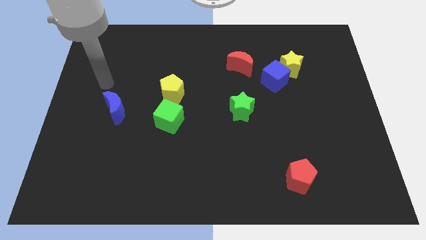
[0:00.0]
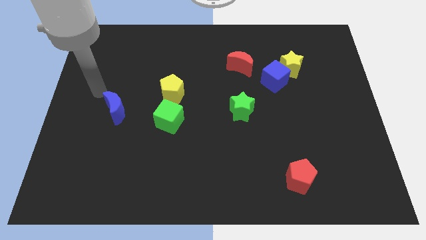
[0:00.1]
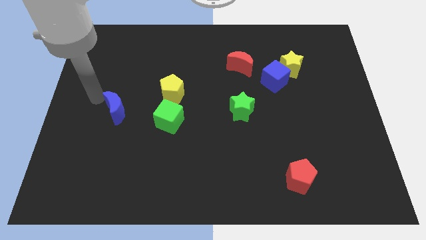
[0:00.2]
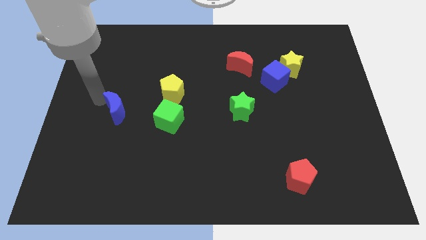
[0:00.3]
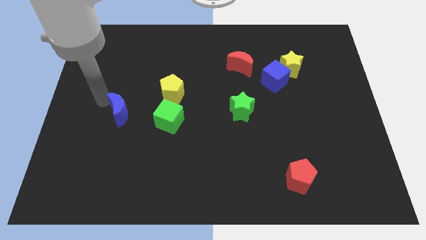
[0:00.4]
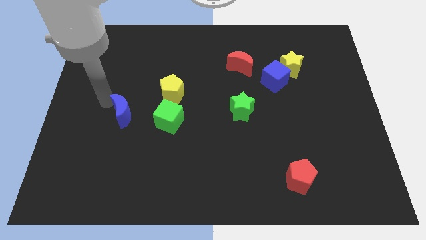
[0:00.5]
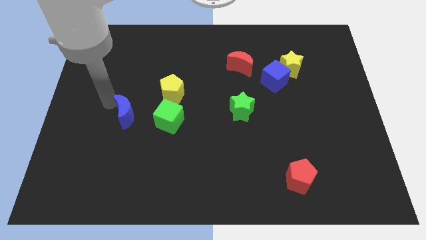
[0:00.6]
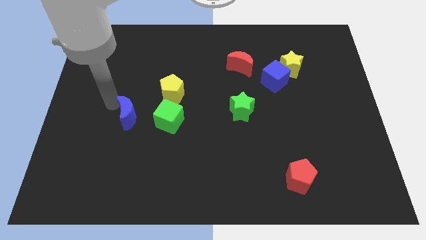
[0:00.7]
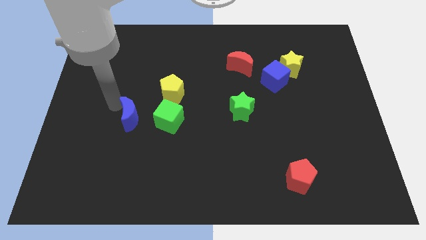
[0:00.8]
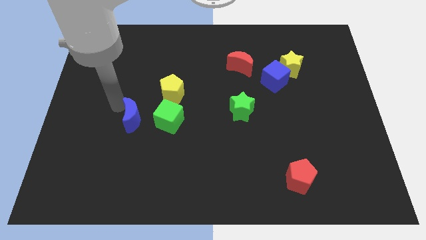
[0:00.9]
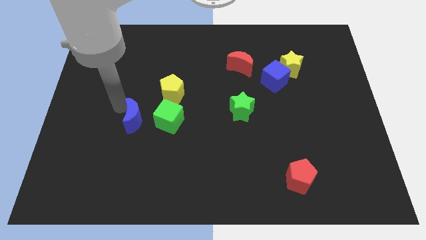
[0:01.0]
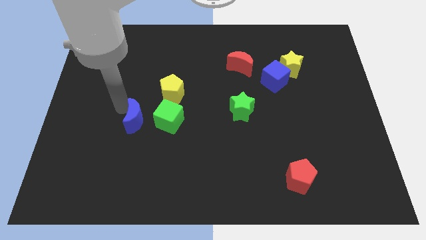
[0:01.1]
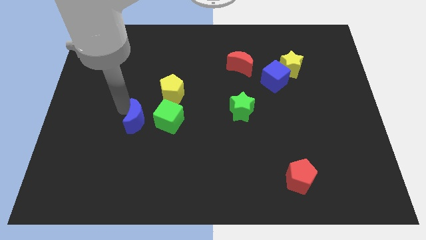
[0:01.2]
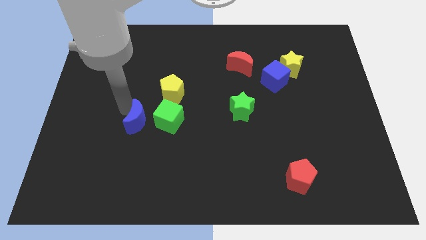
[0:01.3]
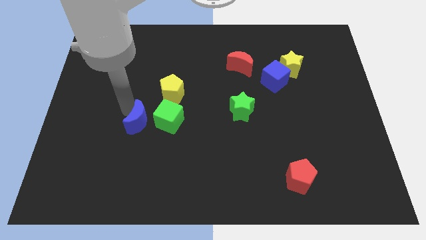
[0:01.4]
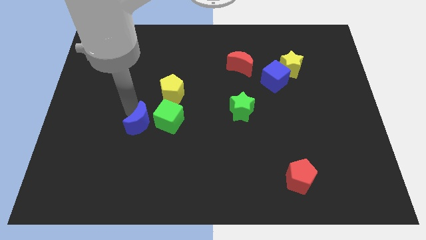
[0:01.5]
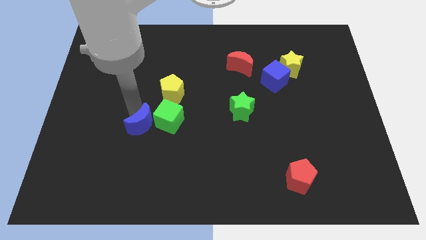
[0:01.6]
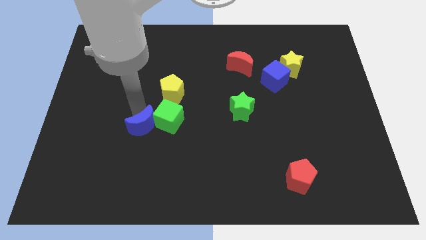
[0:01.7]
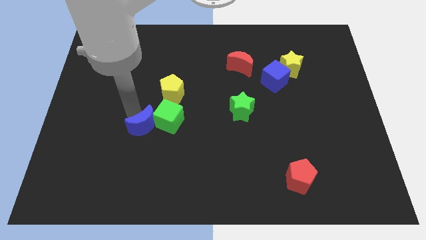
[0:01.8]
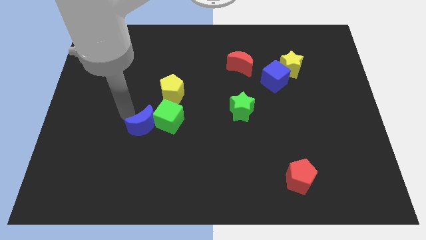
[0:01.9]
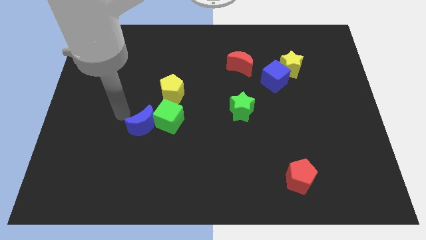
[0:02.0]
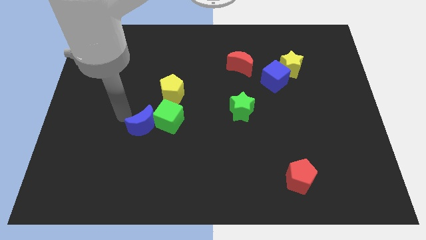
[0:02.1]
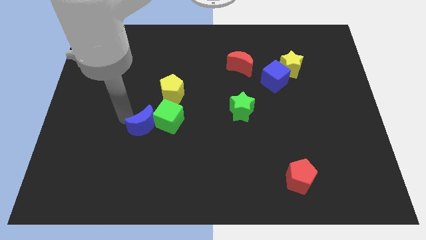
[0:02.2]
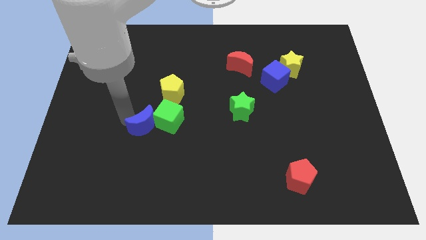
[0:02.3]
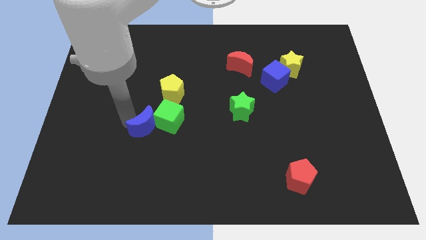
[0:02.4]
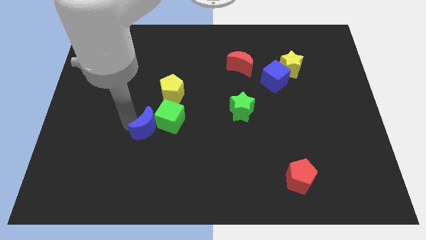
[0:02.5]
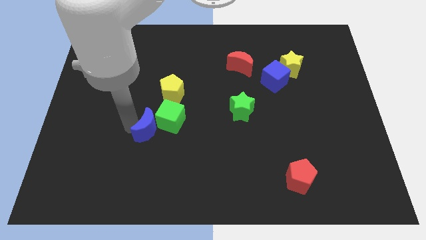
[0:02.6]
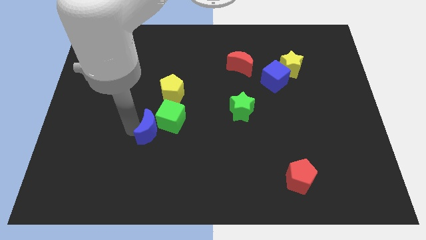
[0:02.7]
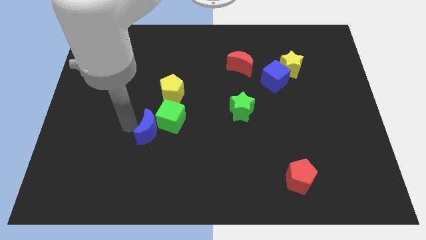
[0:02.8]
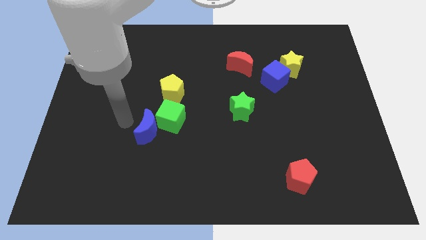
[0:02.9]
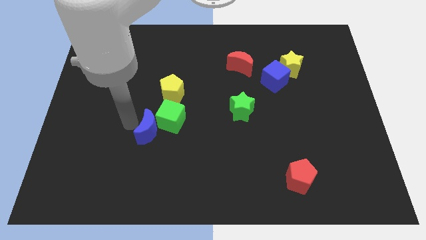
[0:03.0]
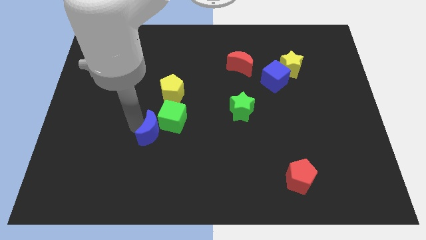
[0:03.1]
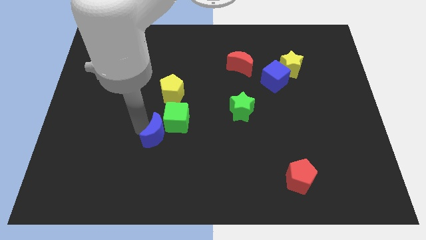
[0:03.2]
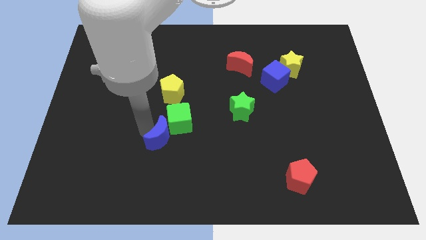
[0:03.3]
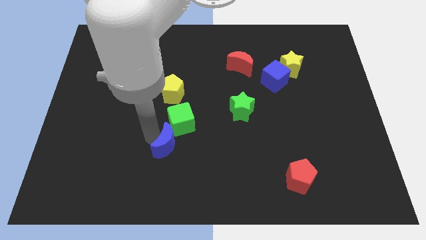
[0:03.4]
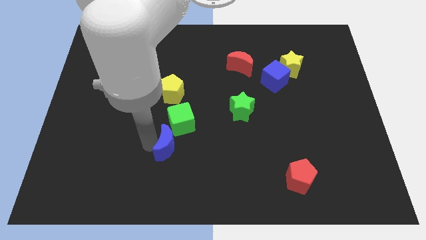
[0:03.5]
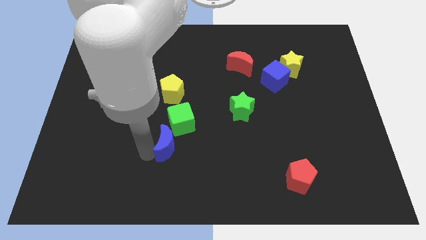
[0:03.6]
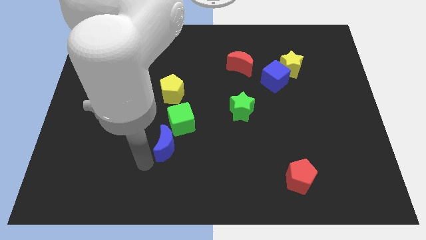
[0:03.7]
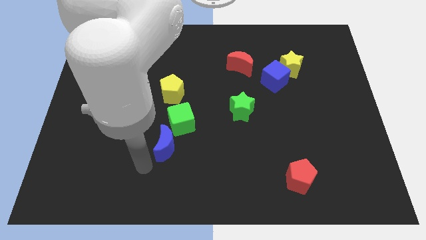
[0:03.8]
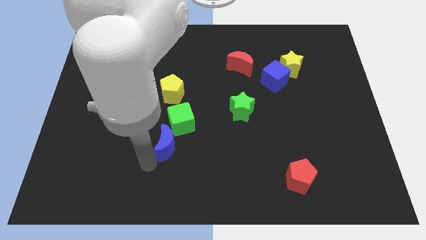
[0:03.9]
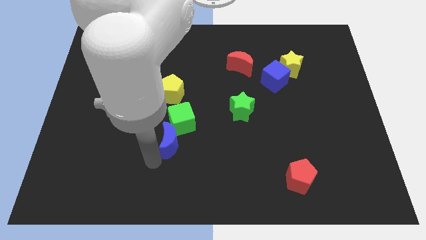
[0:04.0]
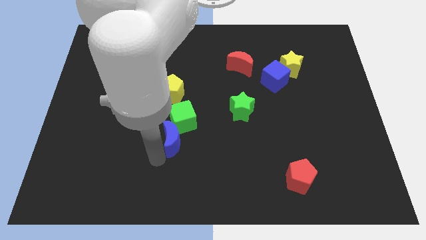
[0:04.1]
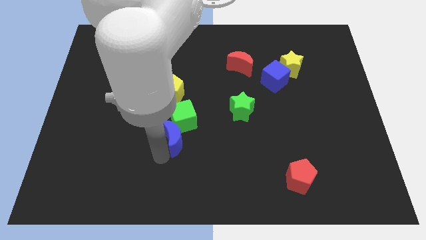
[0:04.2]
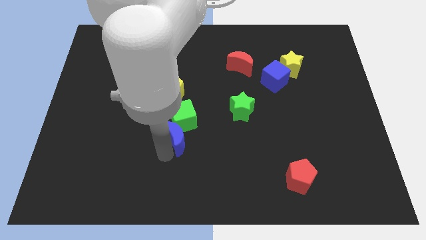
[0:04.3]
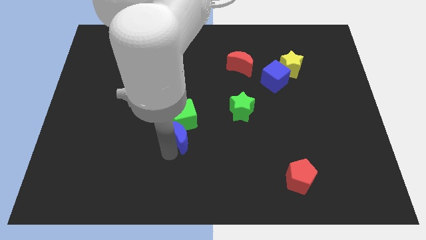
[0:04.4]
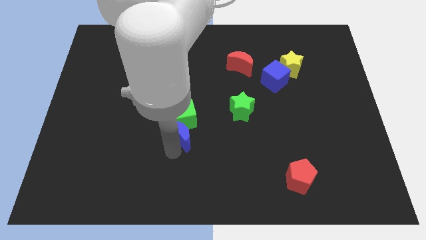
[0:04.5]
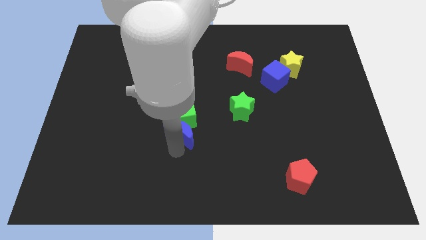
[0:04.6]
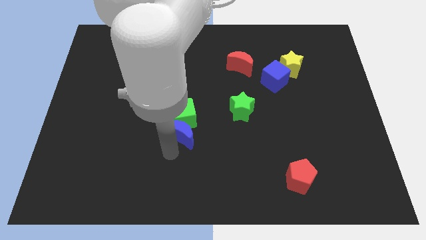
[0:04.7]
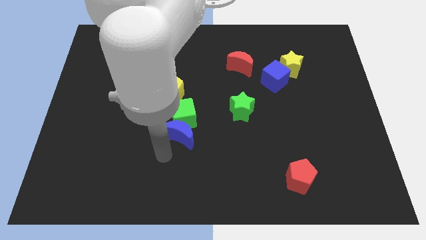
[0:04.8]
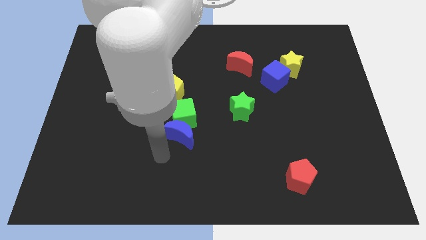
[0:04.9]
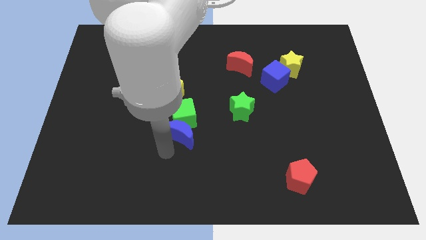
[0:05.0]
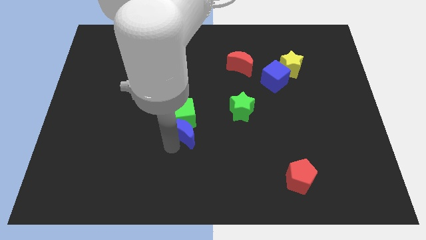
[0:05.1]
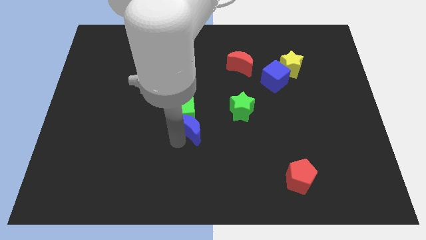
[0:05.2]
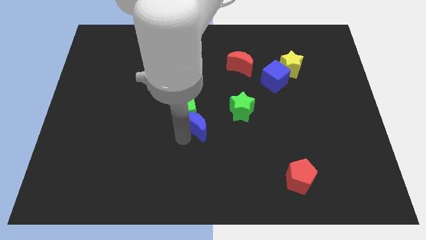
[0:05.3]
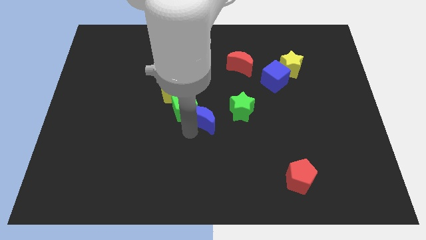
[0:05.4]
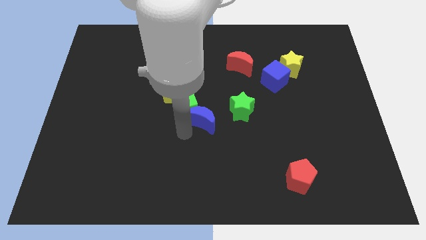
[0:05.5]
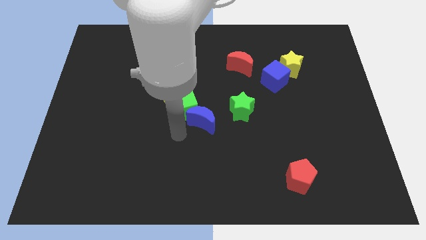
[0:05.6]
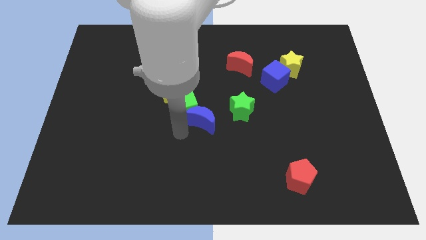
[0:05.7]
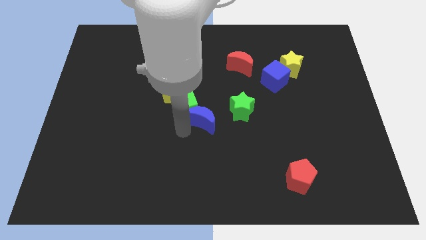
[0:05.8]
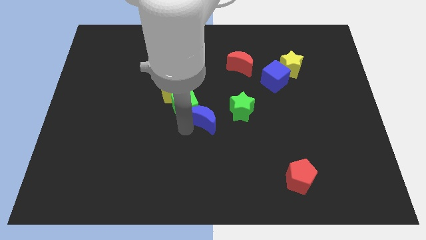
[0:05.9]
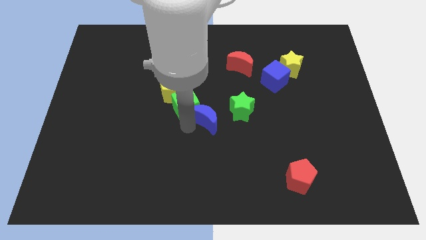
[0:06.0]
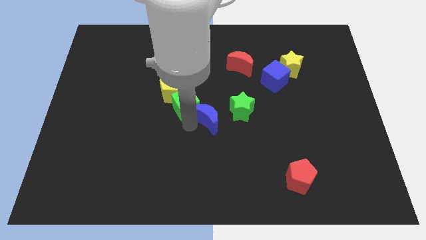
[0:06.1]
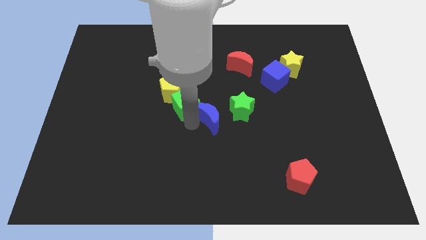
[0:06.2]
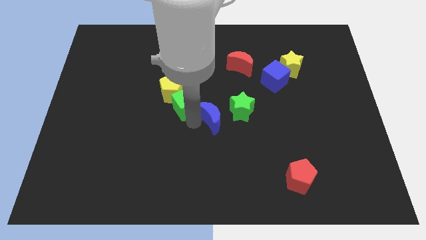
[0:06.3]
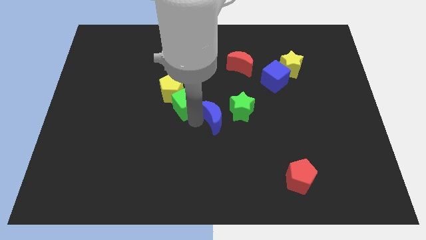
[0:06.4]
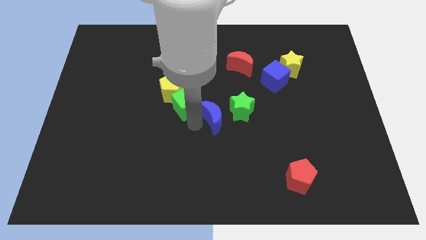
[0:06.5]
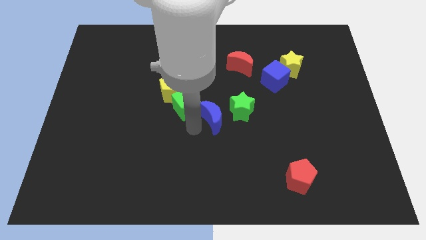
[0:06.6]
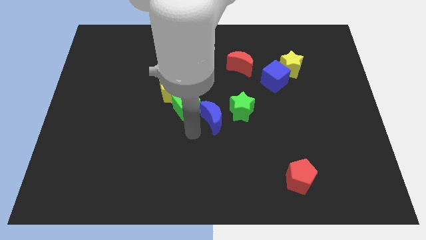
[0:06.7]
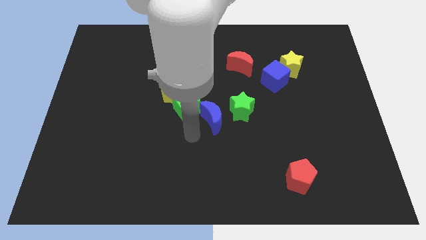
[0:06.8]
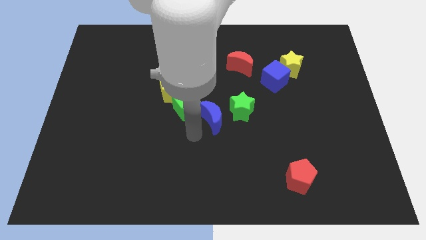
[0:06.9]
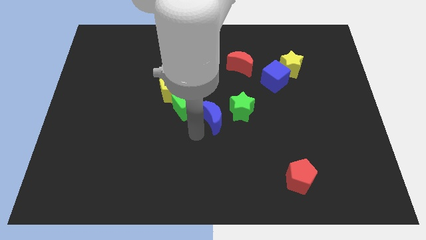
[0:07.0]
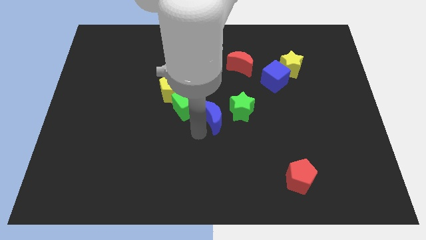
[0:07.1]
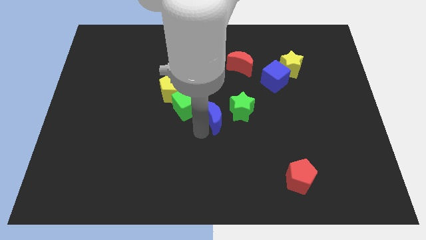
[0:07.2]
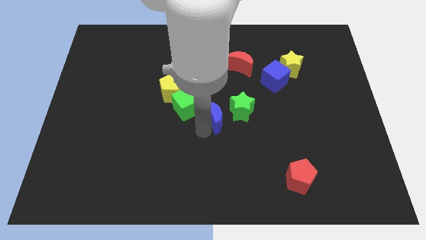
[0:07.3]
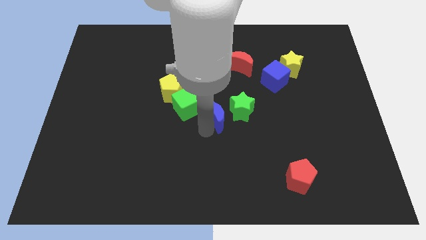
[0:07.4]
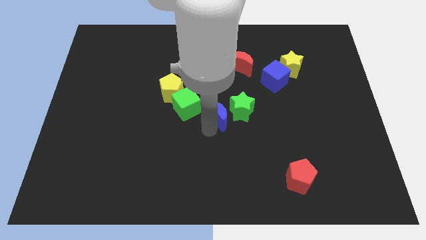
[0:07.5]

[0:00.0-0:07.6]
slide the blue moon next to the green star
